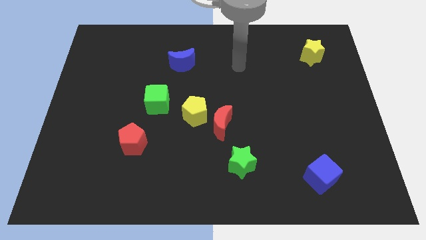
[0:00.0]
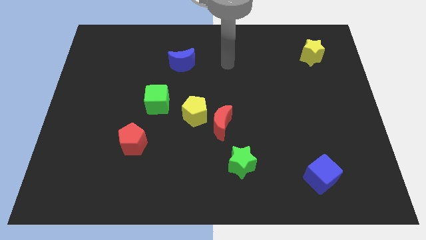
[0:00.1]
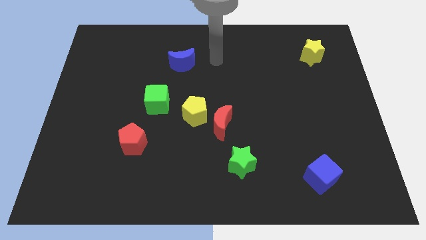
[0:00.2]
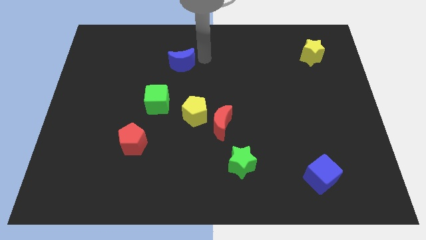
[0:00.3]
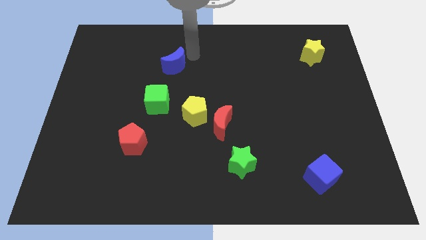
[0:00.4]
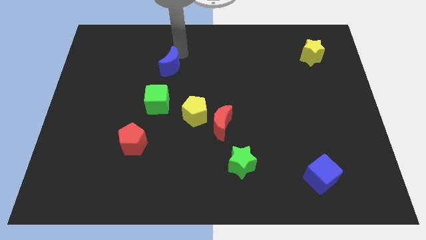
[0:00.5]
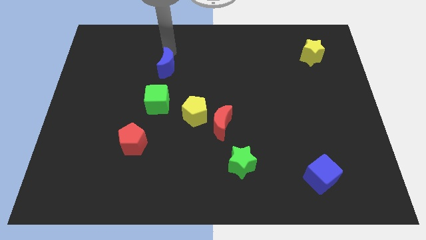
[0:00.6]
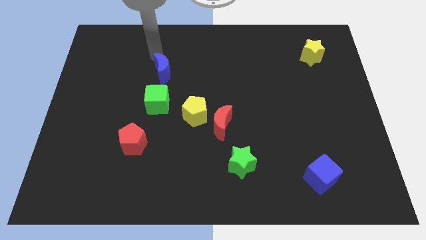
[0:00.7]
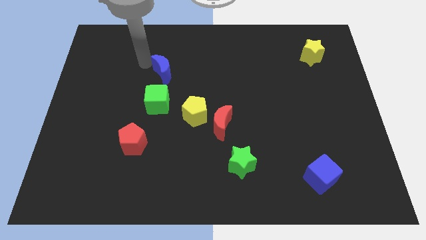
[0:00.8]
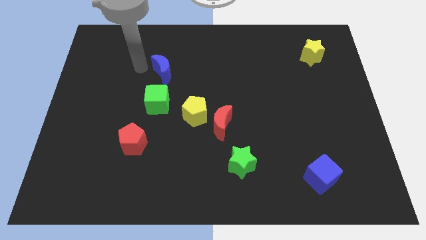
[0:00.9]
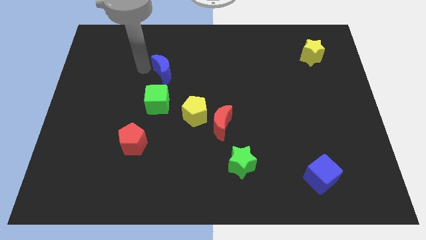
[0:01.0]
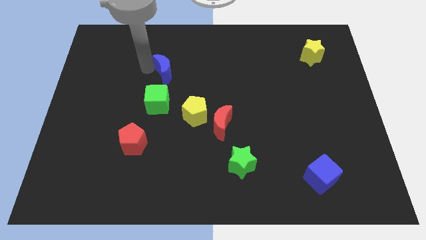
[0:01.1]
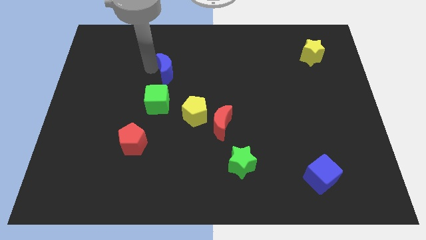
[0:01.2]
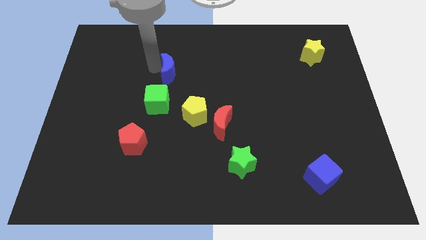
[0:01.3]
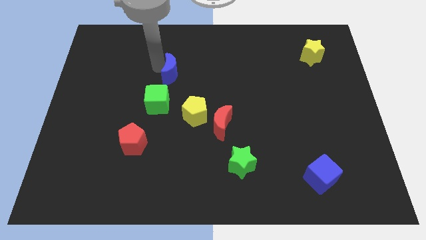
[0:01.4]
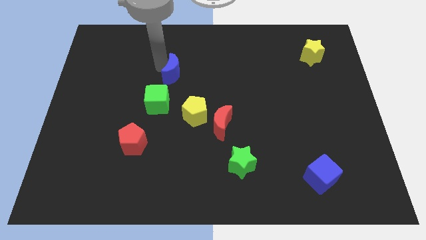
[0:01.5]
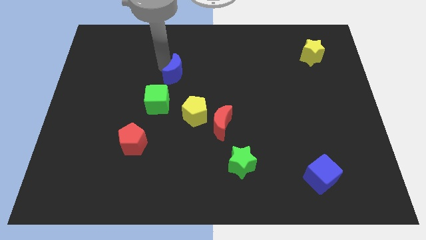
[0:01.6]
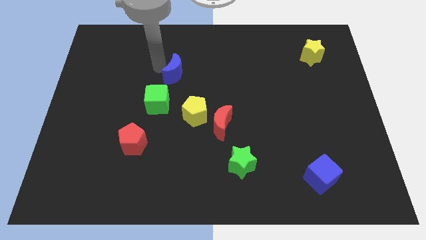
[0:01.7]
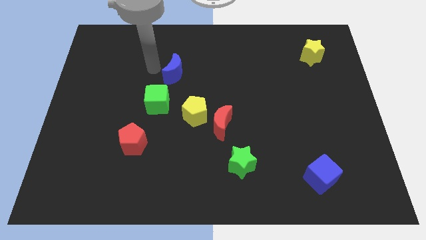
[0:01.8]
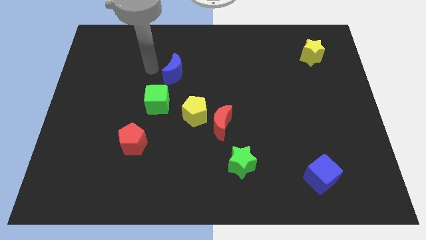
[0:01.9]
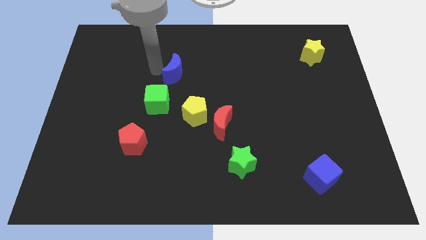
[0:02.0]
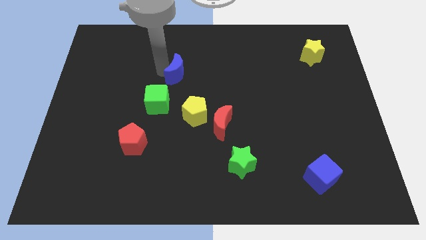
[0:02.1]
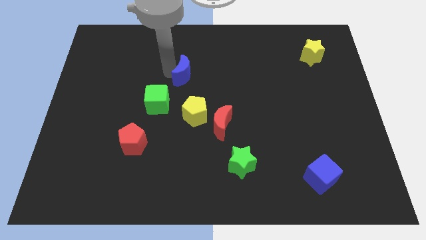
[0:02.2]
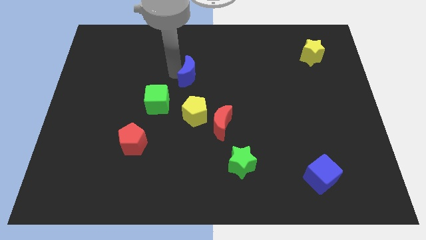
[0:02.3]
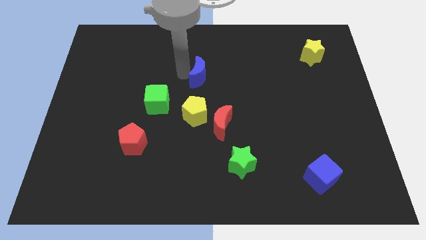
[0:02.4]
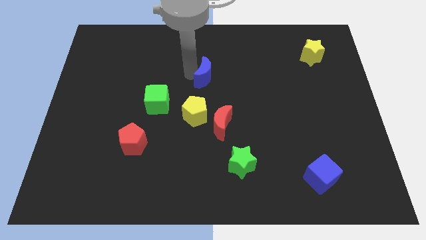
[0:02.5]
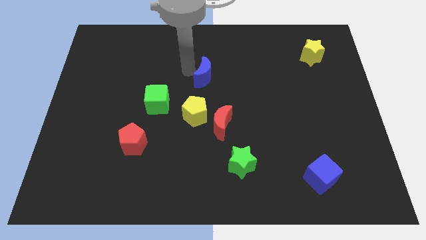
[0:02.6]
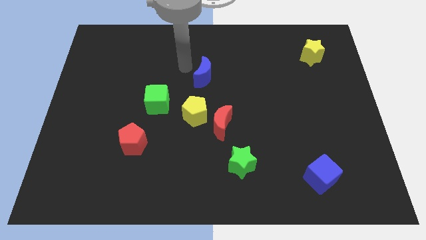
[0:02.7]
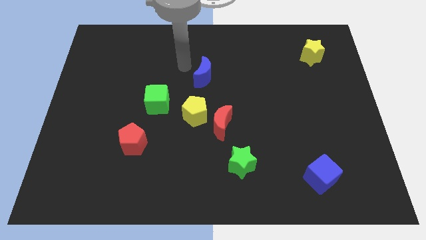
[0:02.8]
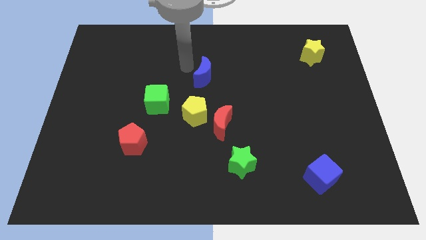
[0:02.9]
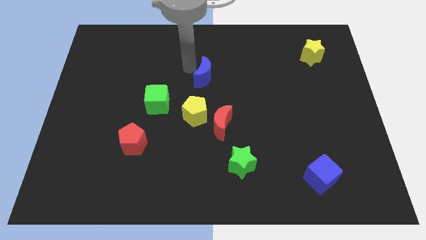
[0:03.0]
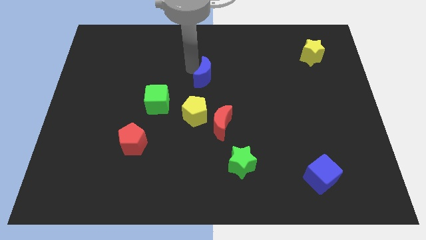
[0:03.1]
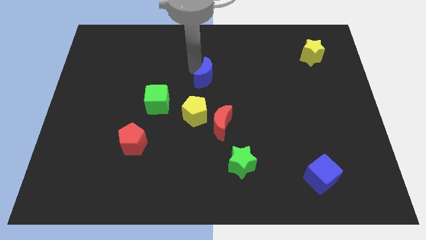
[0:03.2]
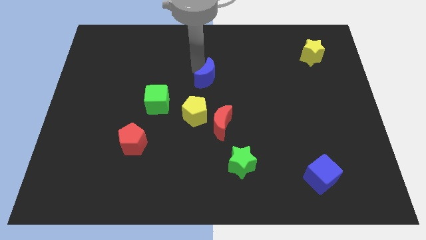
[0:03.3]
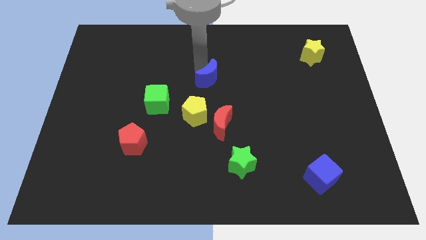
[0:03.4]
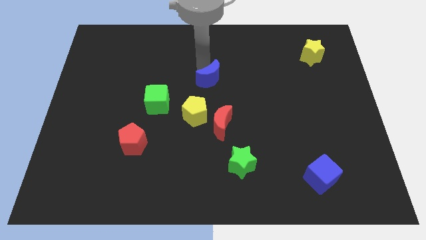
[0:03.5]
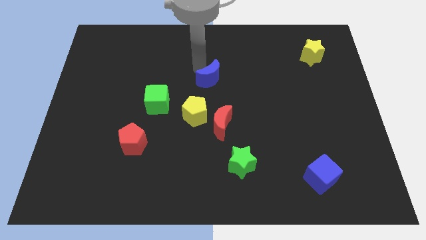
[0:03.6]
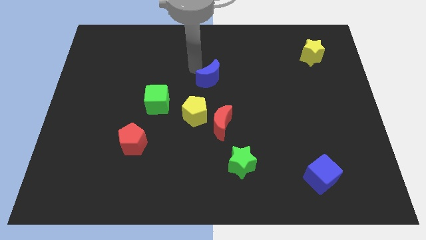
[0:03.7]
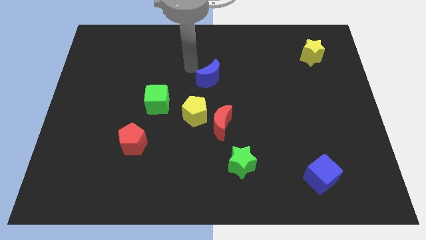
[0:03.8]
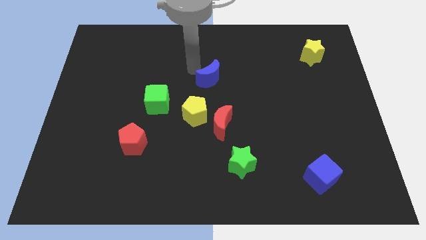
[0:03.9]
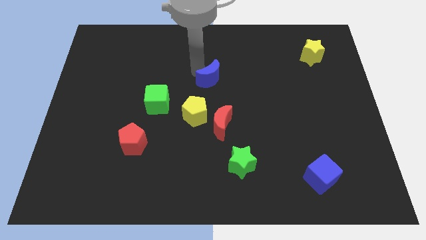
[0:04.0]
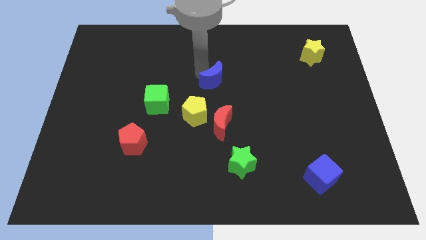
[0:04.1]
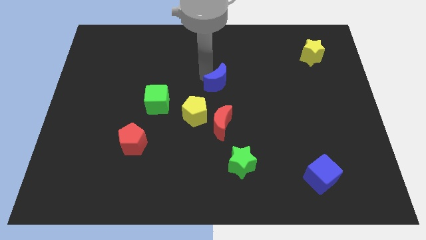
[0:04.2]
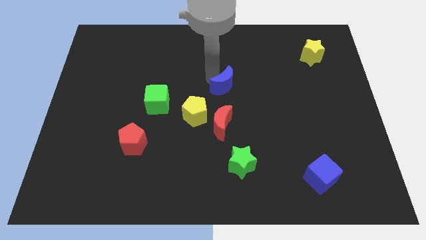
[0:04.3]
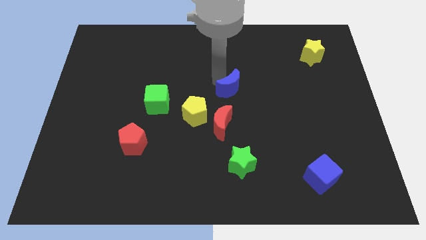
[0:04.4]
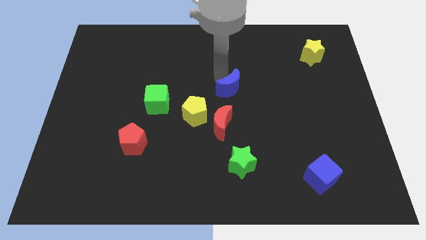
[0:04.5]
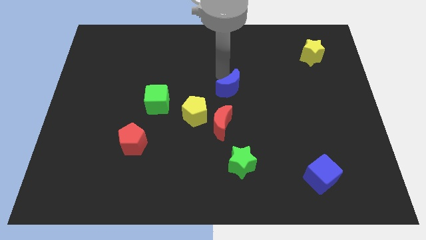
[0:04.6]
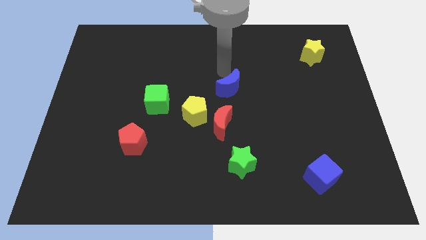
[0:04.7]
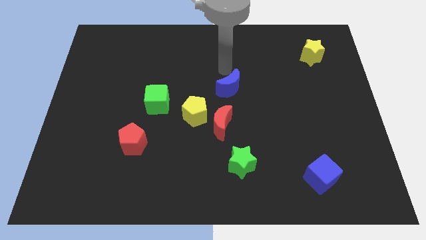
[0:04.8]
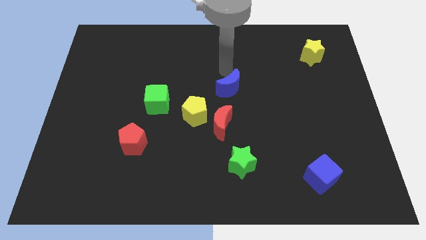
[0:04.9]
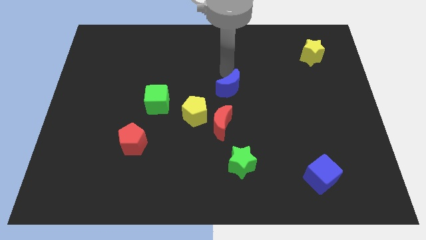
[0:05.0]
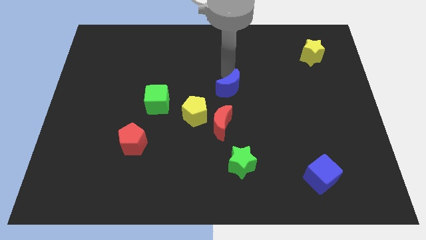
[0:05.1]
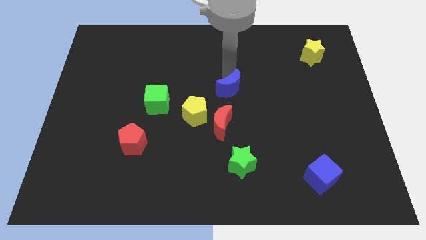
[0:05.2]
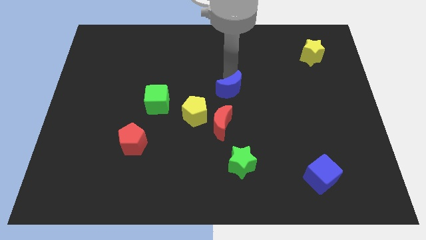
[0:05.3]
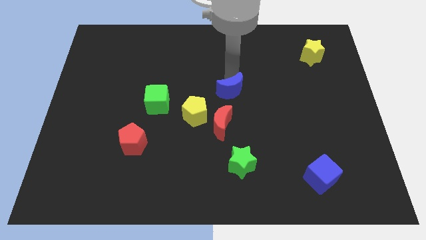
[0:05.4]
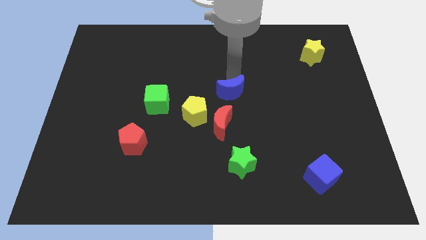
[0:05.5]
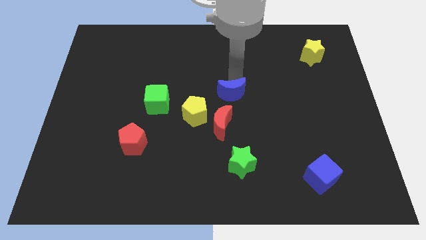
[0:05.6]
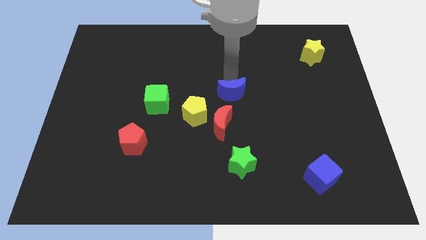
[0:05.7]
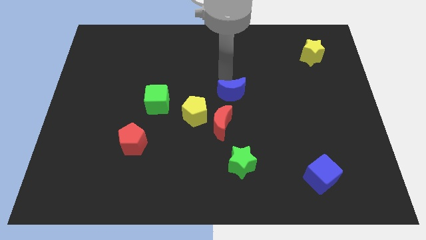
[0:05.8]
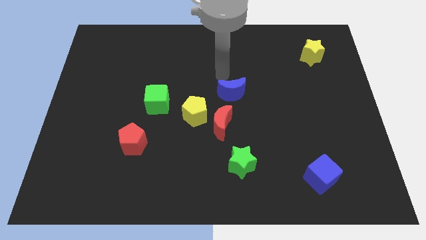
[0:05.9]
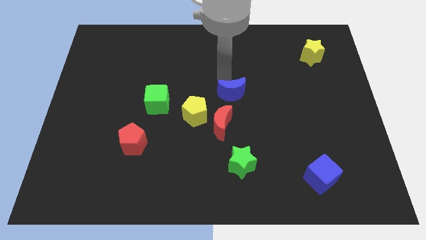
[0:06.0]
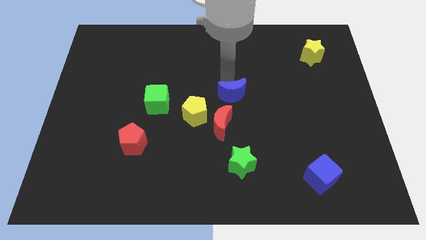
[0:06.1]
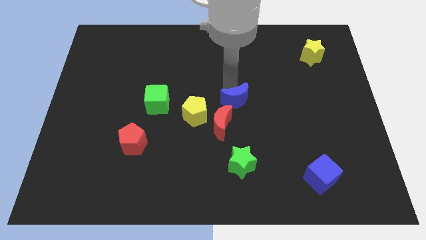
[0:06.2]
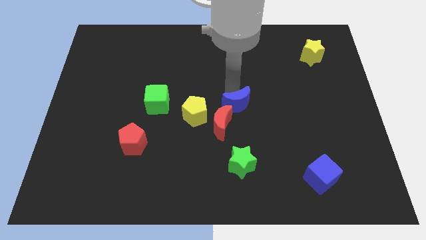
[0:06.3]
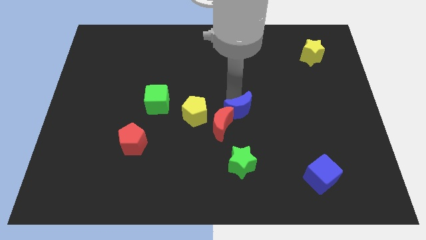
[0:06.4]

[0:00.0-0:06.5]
push the blue moon downwards and to the right

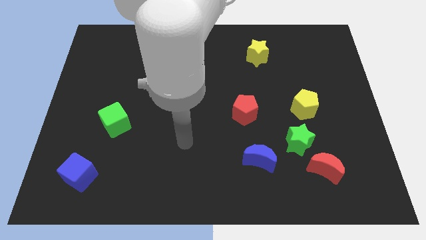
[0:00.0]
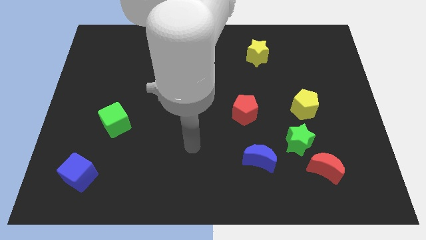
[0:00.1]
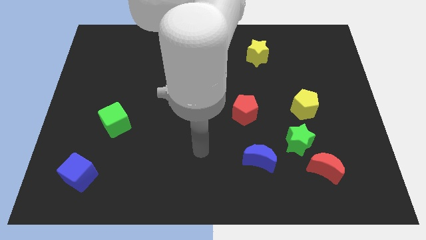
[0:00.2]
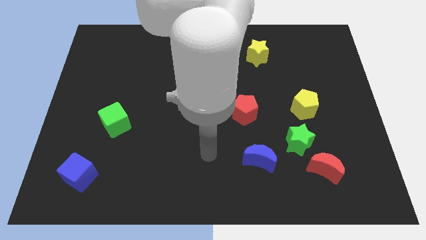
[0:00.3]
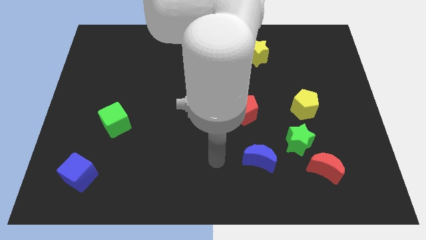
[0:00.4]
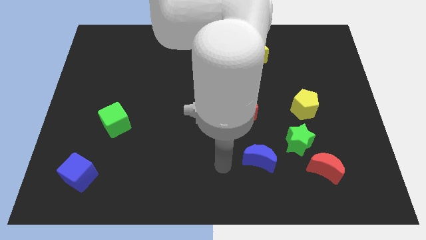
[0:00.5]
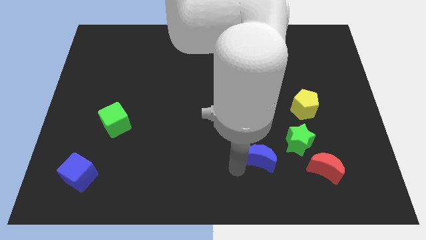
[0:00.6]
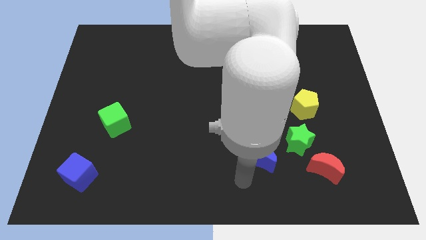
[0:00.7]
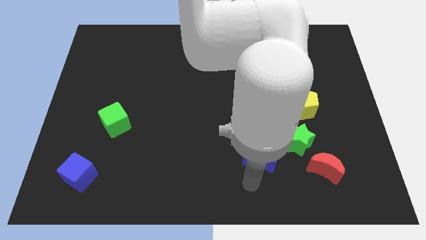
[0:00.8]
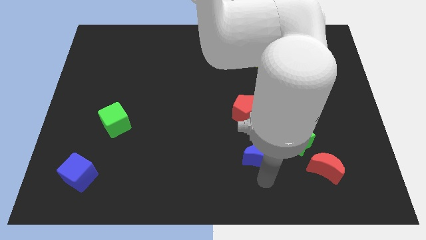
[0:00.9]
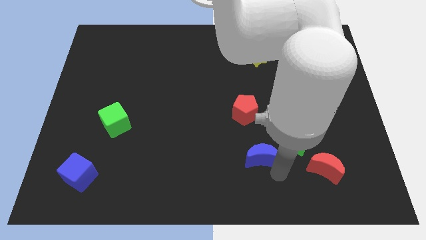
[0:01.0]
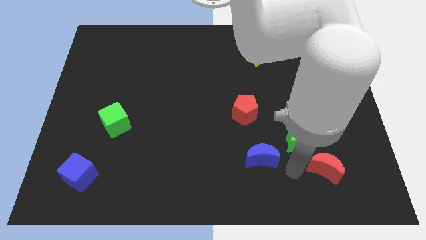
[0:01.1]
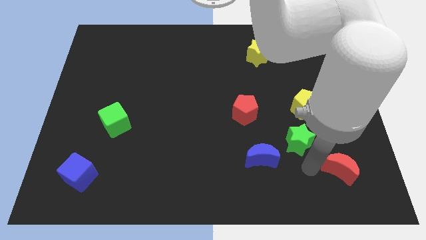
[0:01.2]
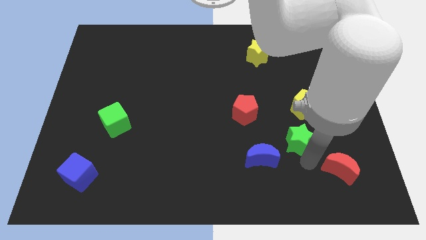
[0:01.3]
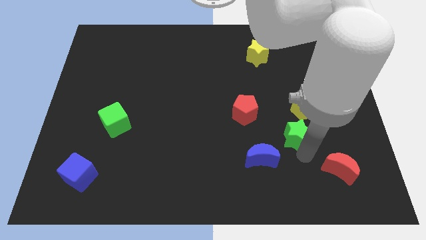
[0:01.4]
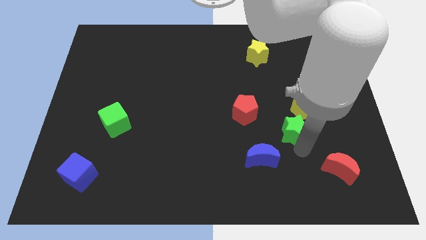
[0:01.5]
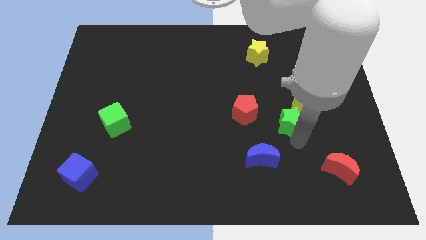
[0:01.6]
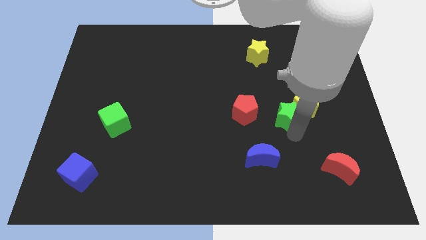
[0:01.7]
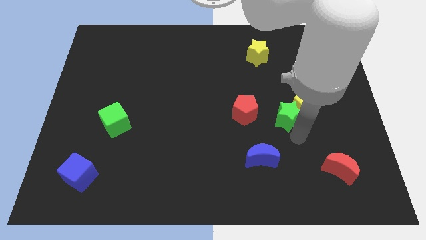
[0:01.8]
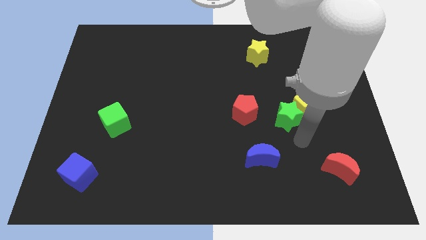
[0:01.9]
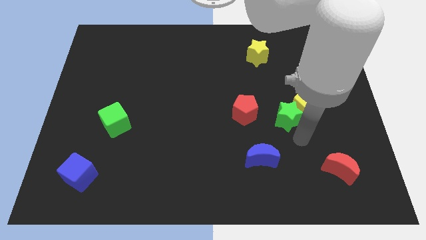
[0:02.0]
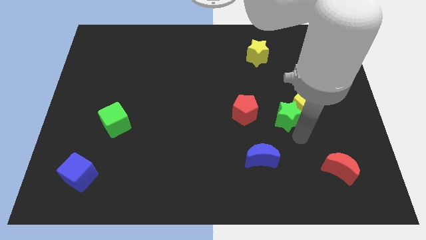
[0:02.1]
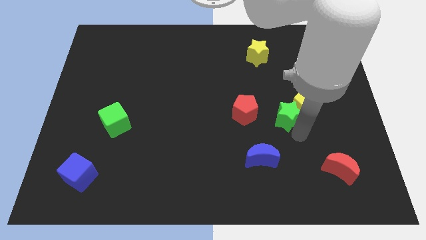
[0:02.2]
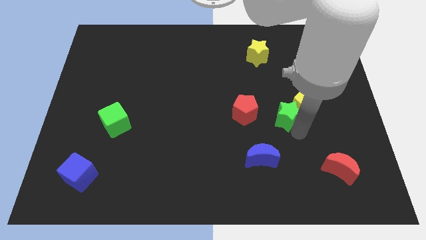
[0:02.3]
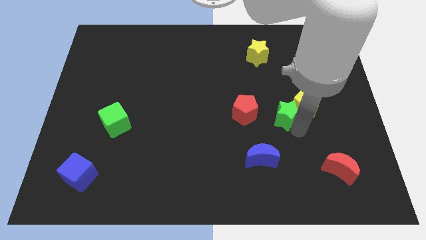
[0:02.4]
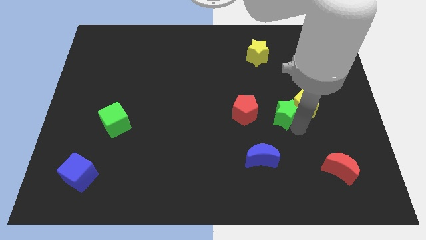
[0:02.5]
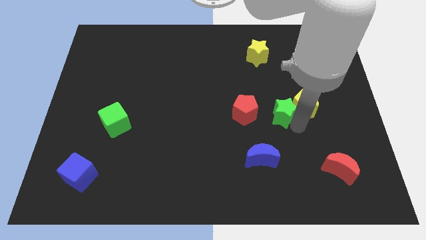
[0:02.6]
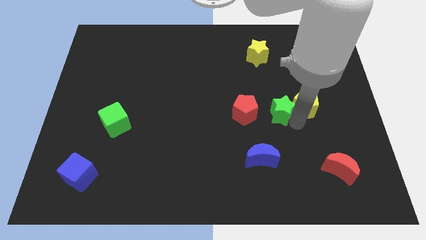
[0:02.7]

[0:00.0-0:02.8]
slide the green star somewhat upwards and to the left
